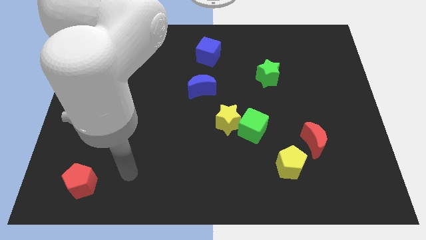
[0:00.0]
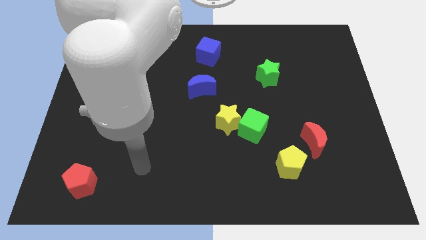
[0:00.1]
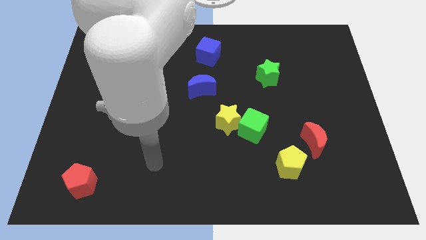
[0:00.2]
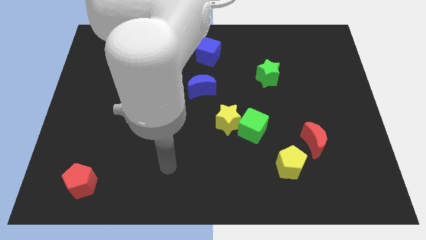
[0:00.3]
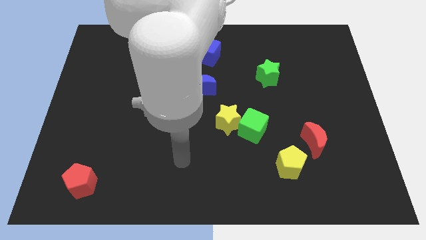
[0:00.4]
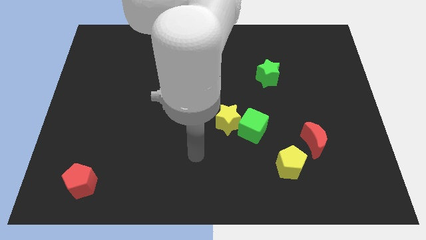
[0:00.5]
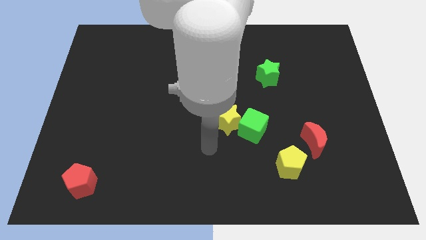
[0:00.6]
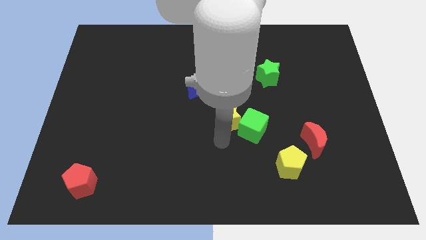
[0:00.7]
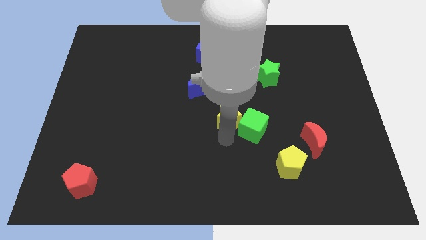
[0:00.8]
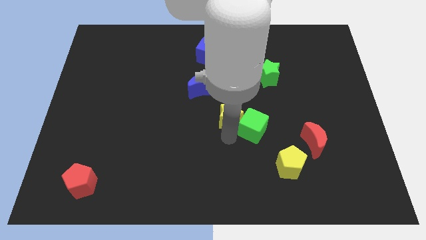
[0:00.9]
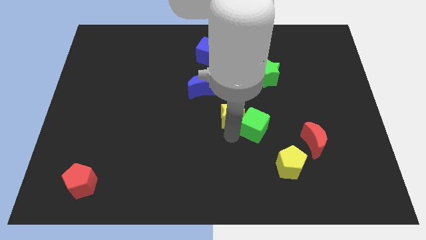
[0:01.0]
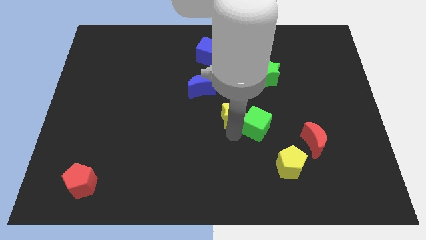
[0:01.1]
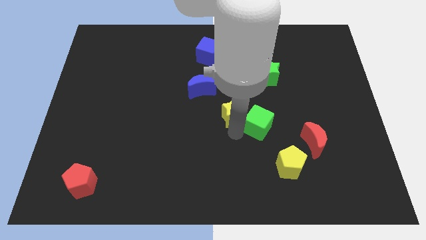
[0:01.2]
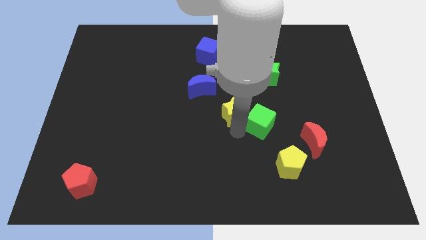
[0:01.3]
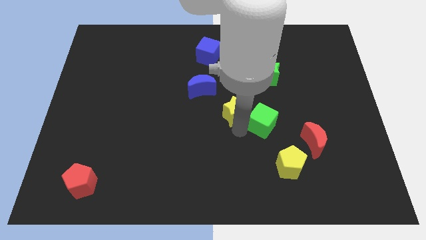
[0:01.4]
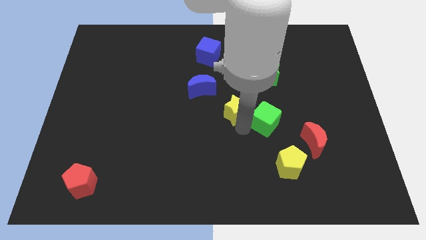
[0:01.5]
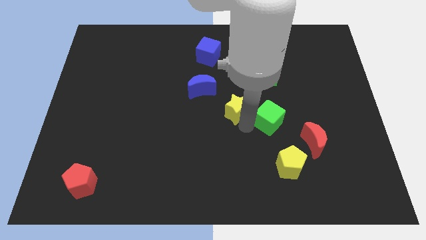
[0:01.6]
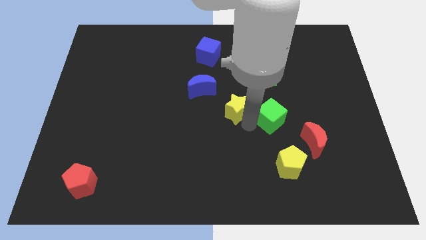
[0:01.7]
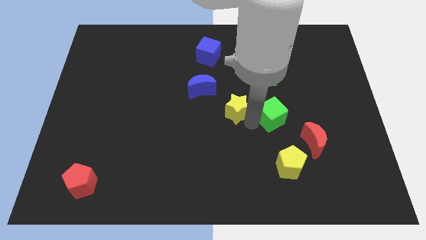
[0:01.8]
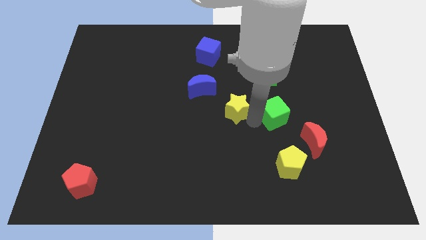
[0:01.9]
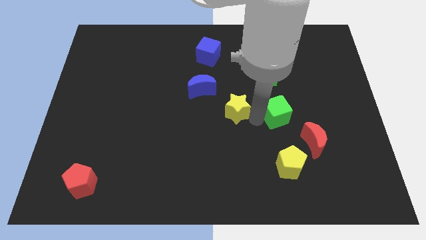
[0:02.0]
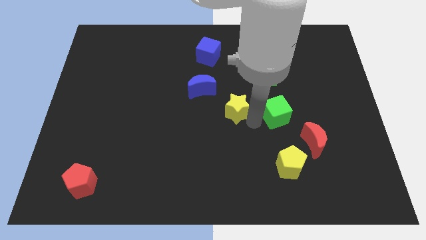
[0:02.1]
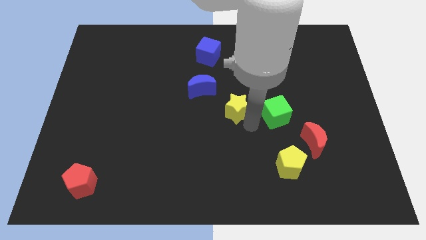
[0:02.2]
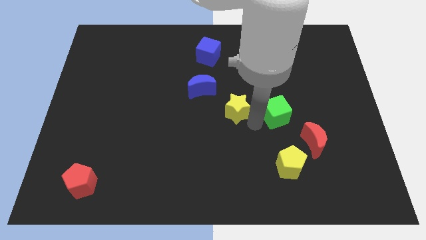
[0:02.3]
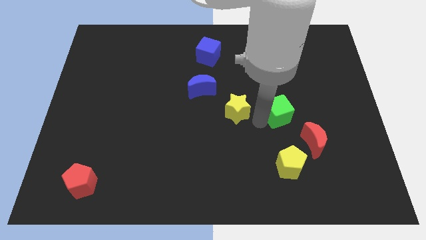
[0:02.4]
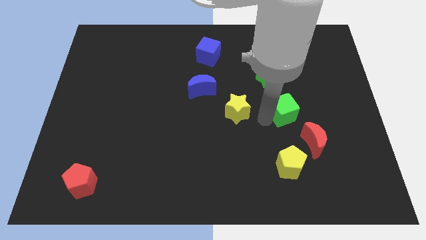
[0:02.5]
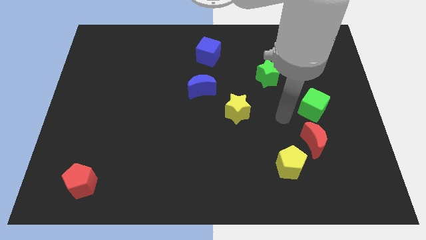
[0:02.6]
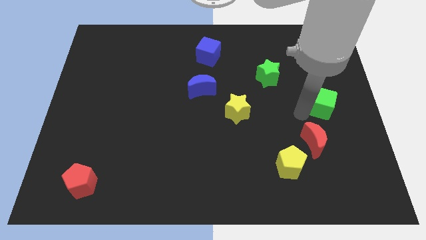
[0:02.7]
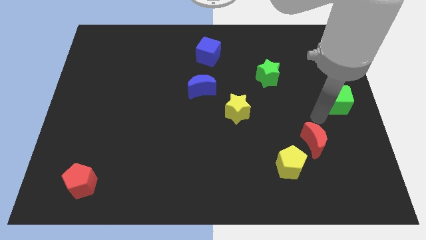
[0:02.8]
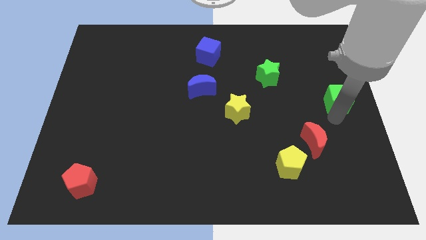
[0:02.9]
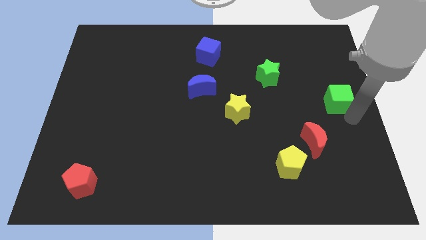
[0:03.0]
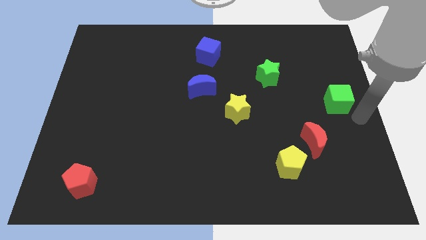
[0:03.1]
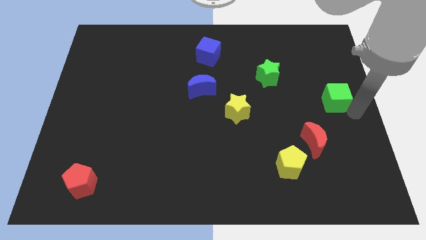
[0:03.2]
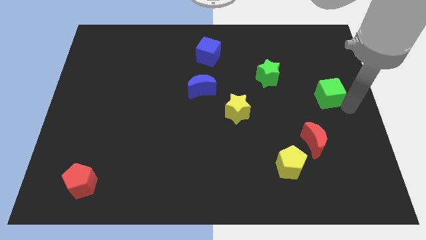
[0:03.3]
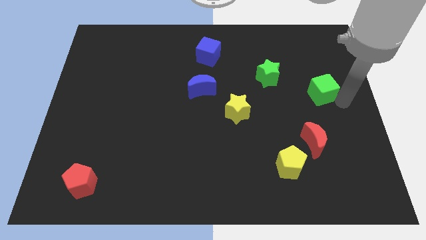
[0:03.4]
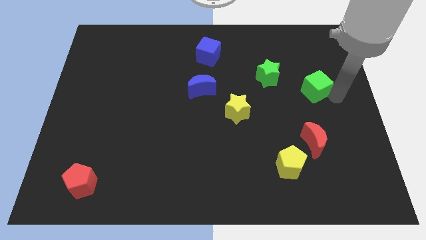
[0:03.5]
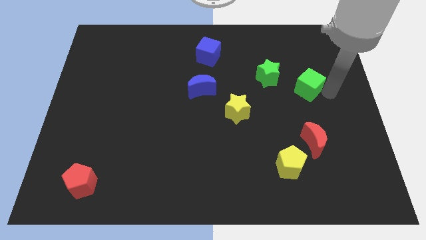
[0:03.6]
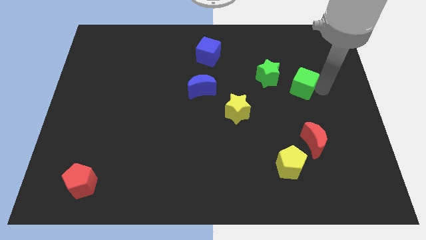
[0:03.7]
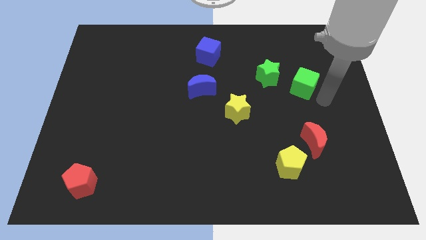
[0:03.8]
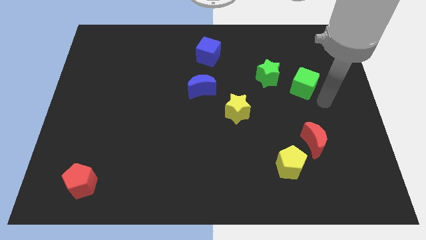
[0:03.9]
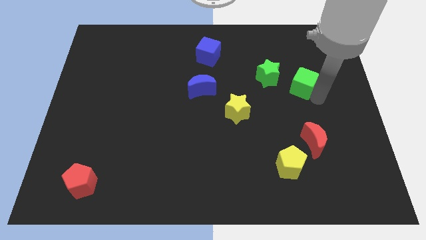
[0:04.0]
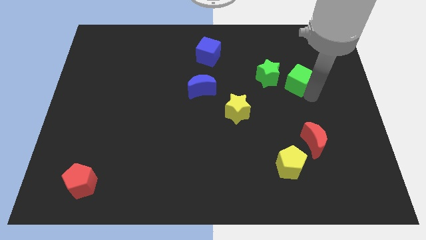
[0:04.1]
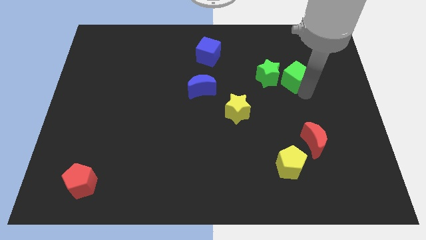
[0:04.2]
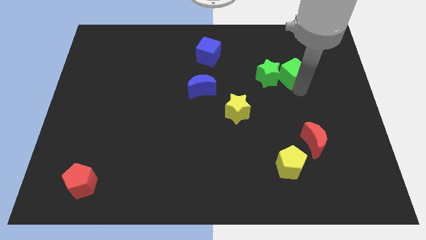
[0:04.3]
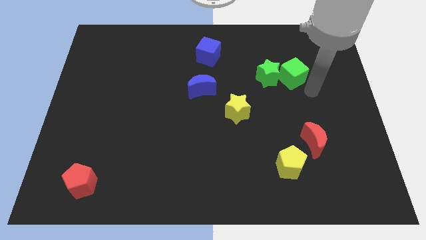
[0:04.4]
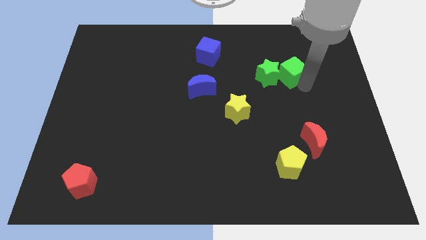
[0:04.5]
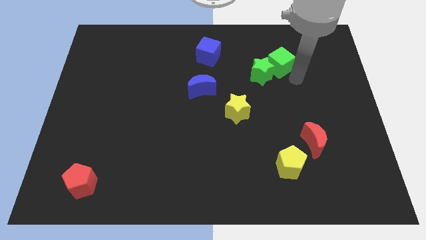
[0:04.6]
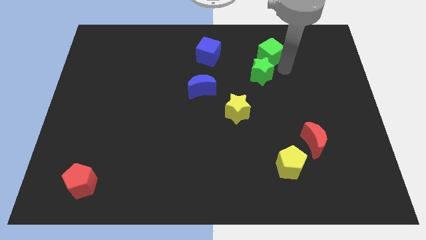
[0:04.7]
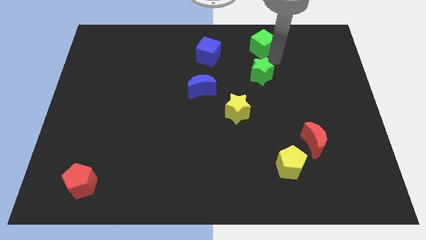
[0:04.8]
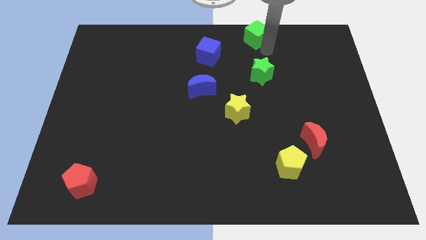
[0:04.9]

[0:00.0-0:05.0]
push the green cube to the top

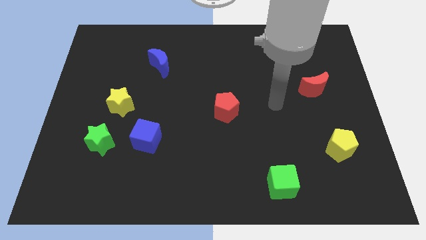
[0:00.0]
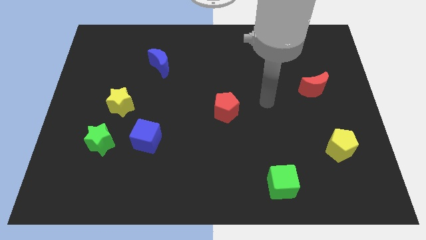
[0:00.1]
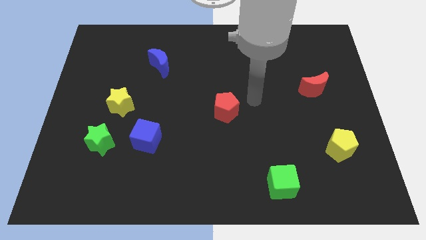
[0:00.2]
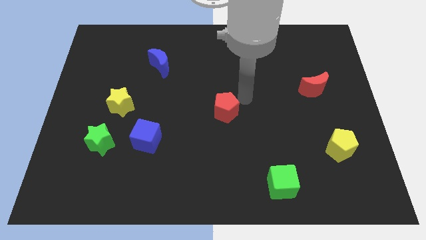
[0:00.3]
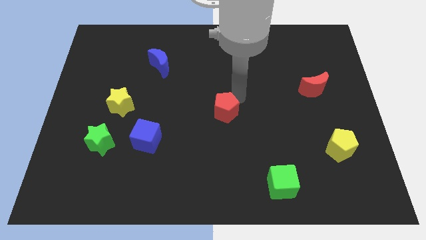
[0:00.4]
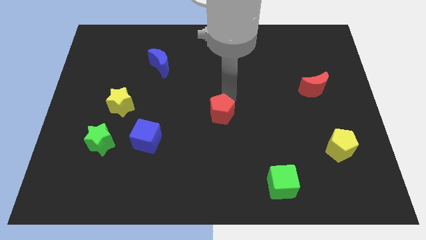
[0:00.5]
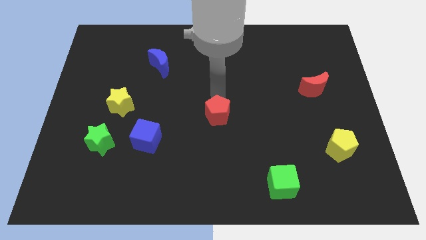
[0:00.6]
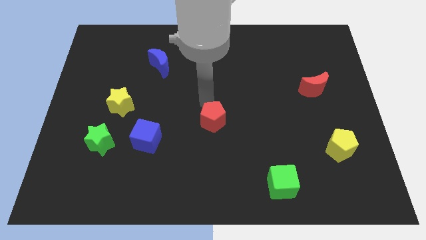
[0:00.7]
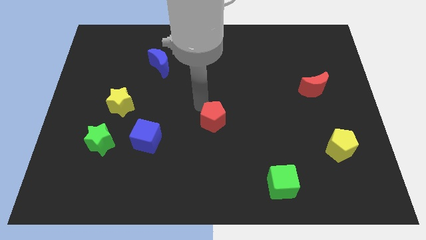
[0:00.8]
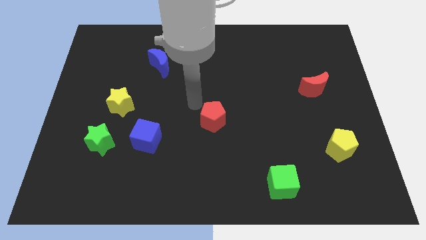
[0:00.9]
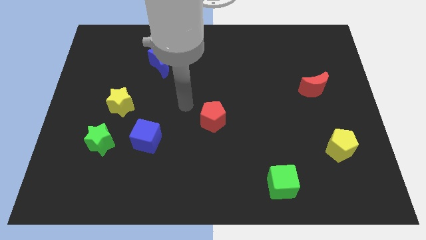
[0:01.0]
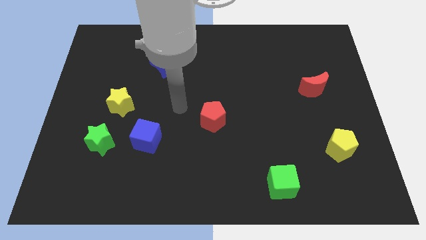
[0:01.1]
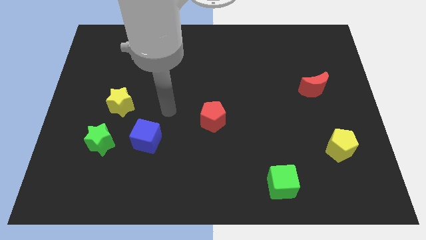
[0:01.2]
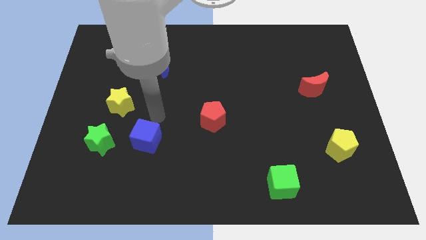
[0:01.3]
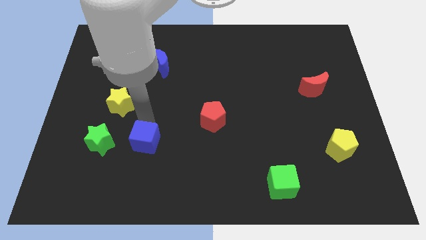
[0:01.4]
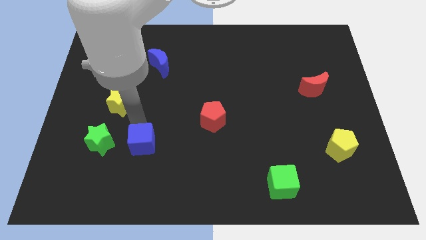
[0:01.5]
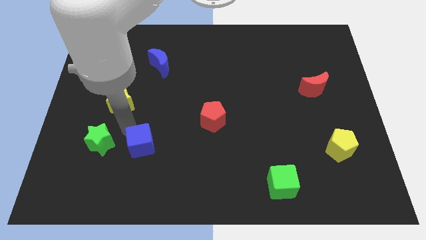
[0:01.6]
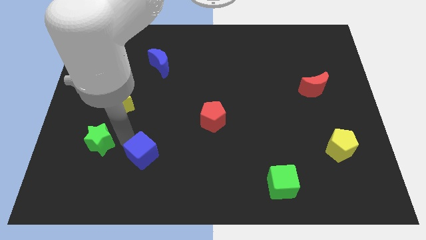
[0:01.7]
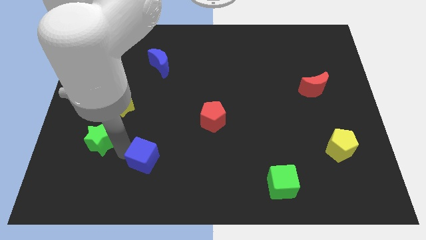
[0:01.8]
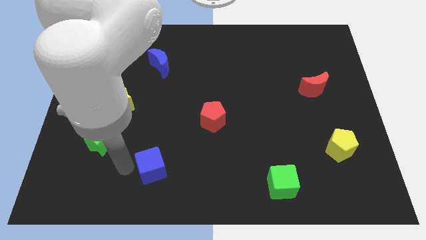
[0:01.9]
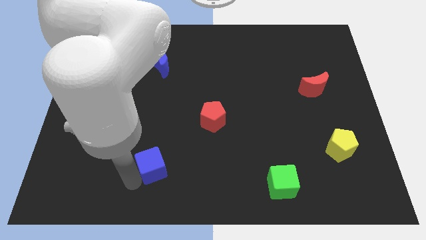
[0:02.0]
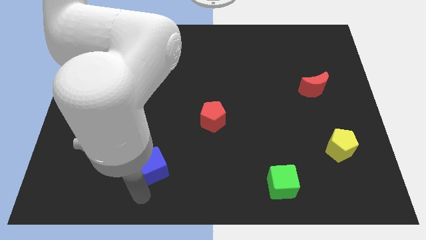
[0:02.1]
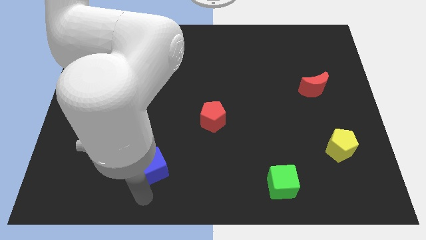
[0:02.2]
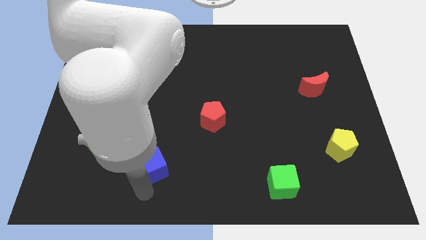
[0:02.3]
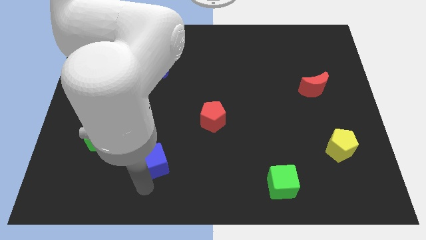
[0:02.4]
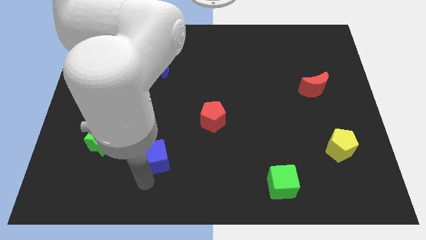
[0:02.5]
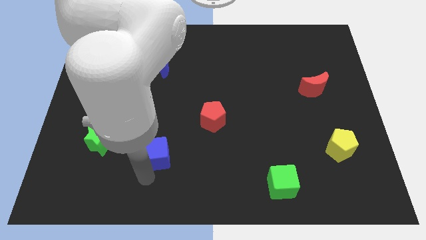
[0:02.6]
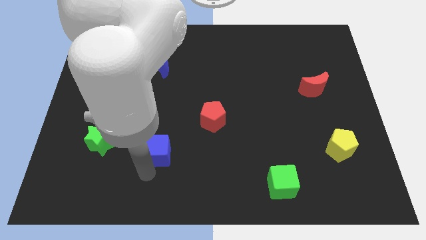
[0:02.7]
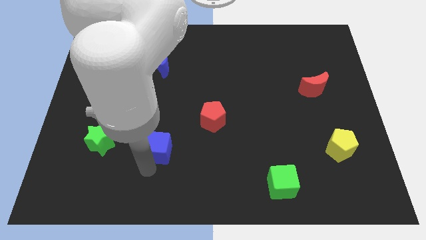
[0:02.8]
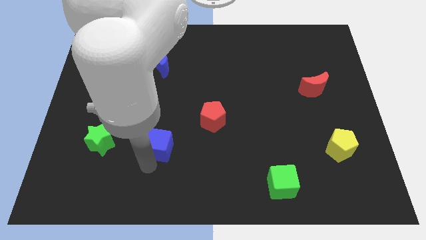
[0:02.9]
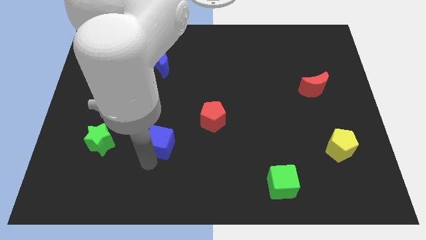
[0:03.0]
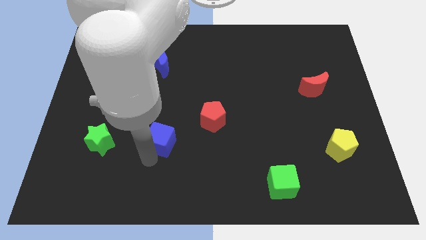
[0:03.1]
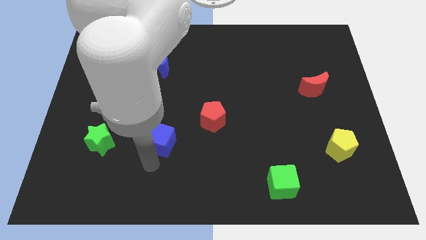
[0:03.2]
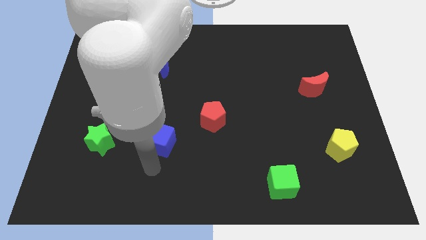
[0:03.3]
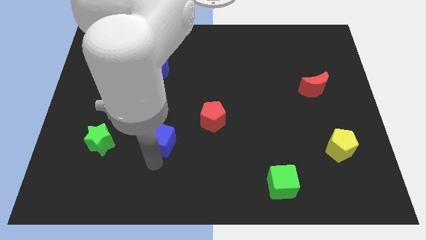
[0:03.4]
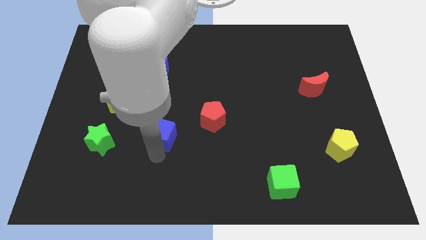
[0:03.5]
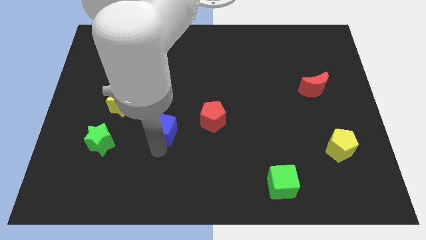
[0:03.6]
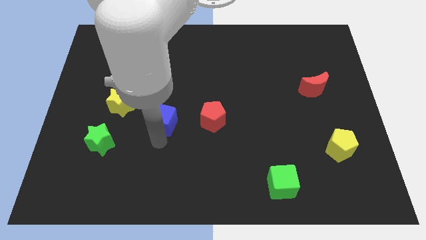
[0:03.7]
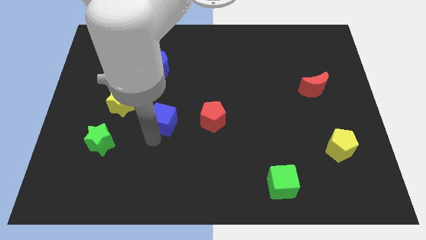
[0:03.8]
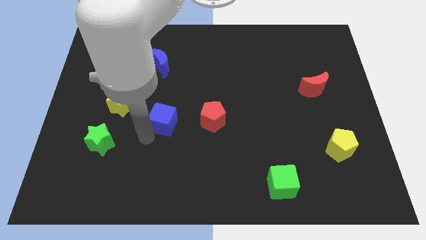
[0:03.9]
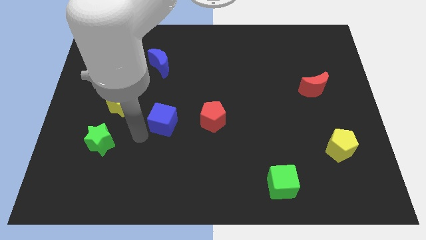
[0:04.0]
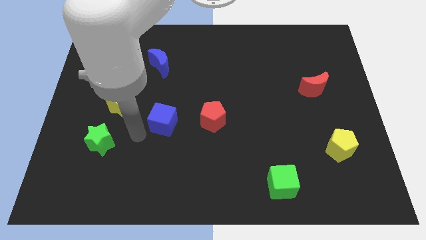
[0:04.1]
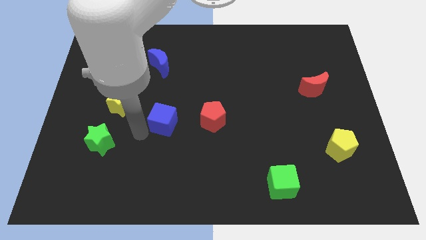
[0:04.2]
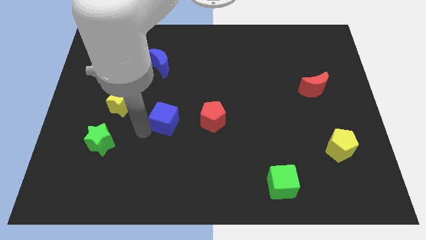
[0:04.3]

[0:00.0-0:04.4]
slide the blue cube to the center
